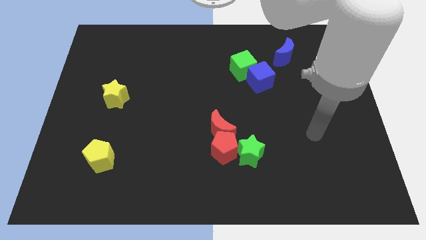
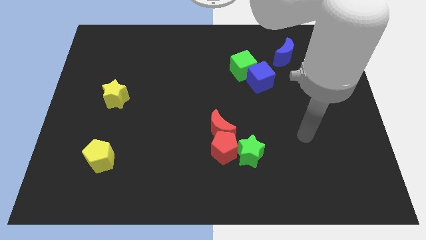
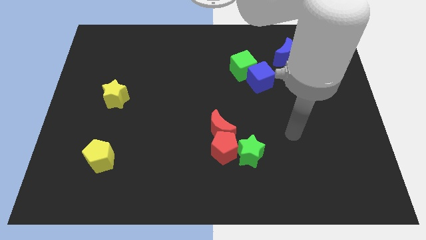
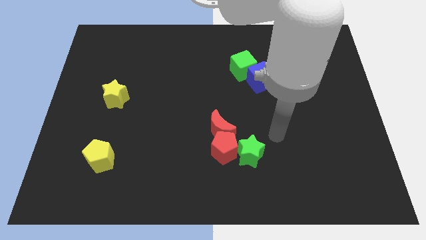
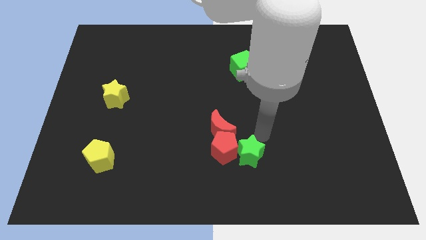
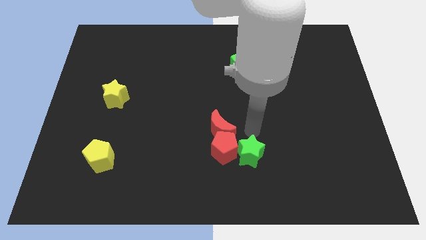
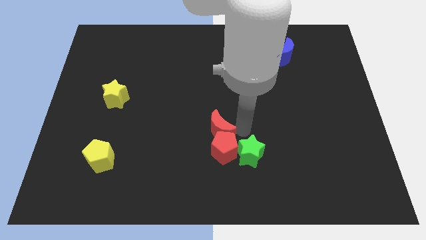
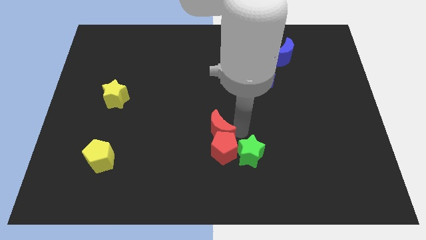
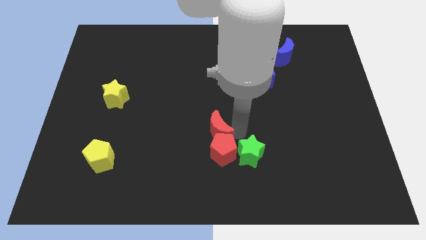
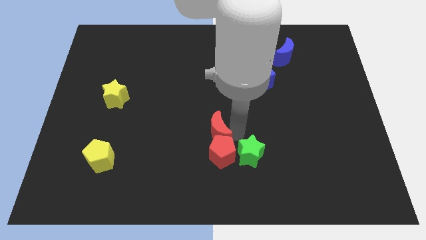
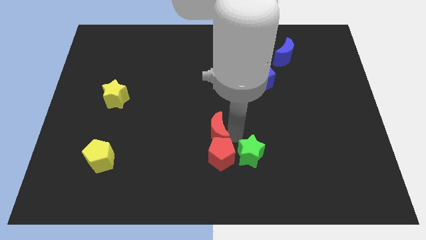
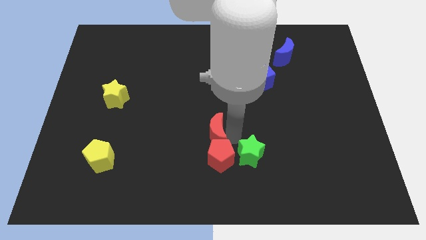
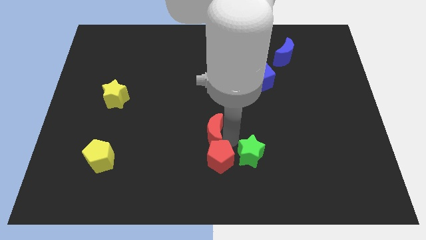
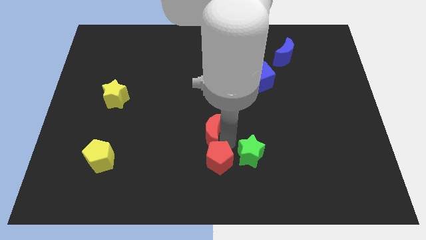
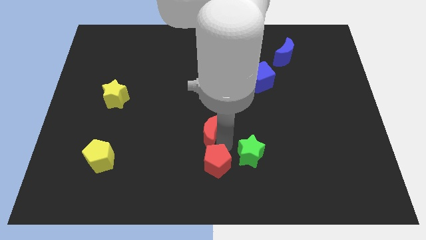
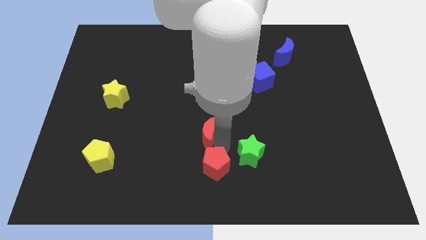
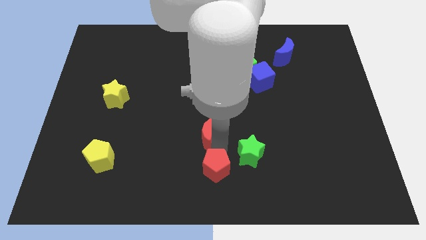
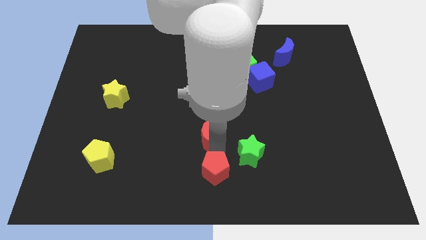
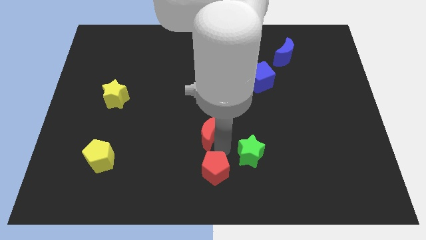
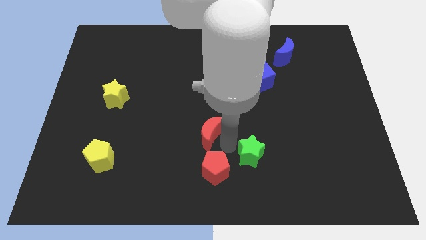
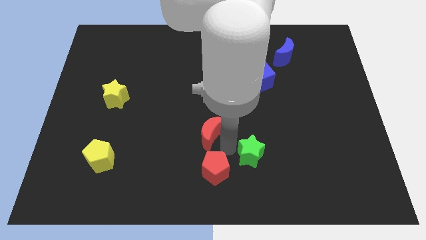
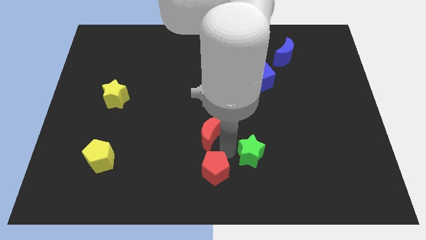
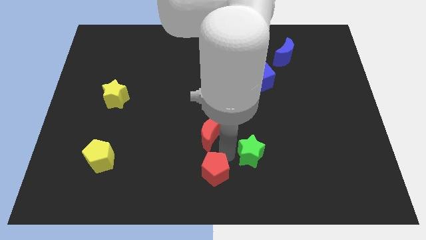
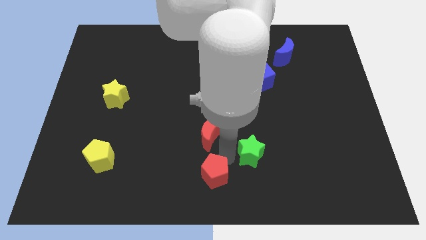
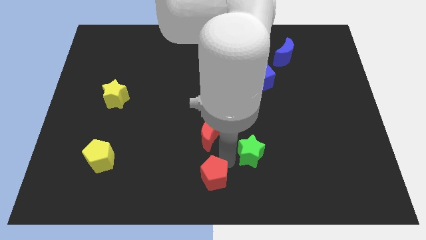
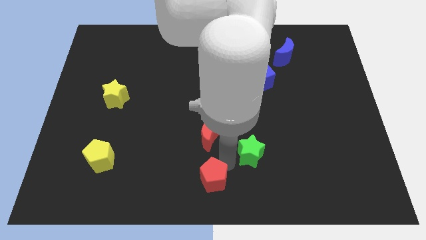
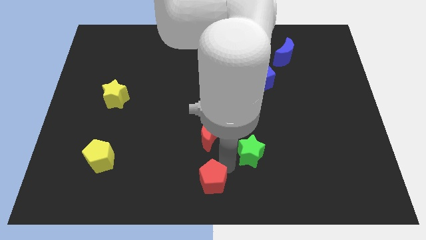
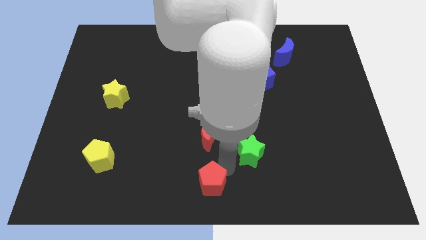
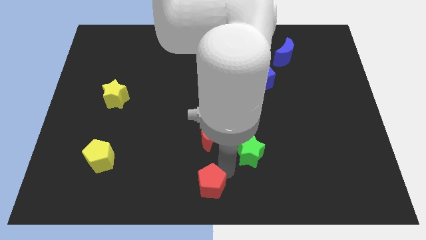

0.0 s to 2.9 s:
move the red pentagon away from the red moon and green star
